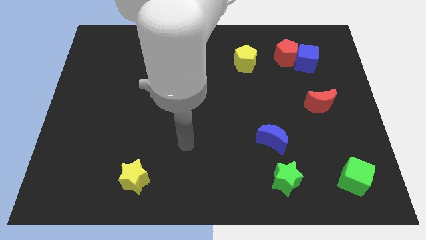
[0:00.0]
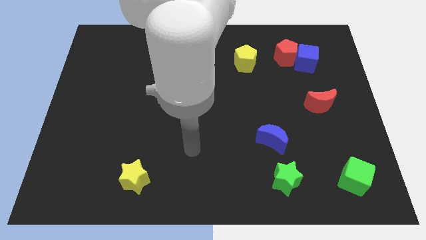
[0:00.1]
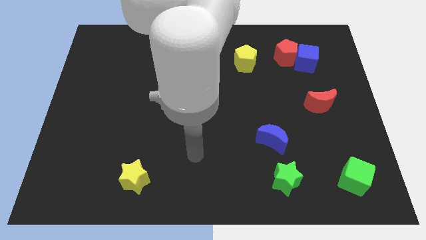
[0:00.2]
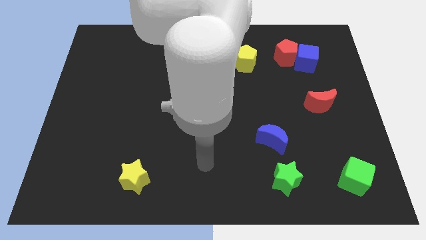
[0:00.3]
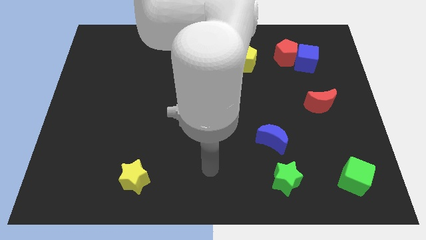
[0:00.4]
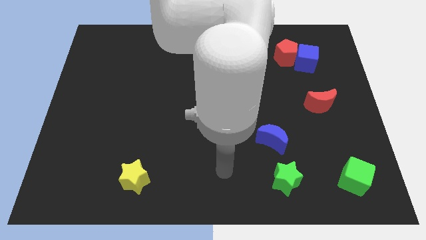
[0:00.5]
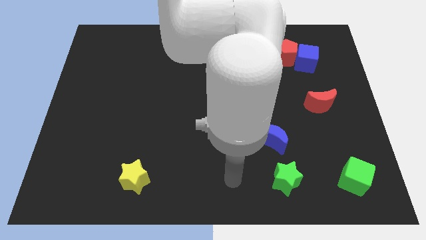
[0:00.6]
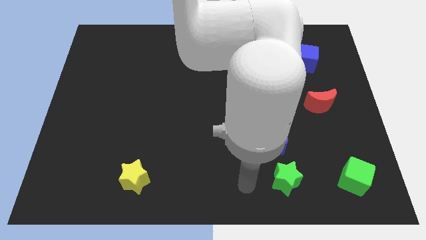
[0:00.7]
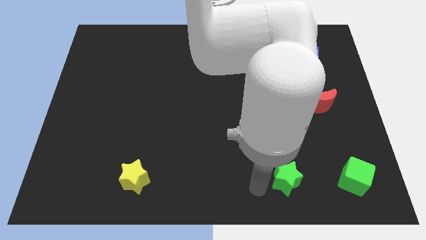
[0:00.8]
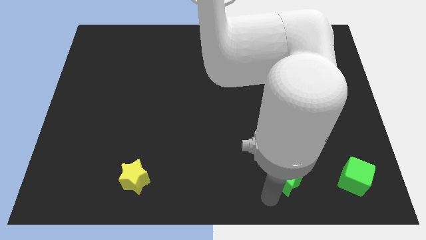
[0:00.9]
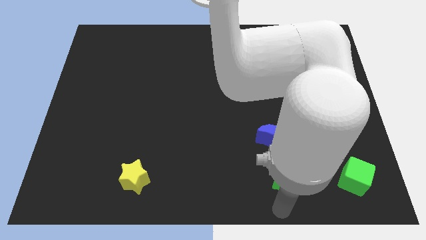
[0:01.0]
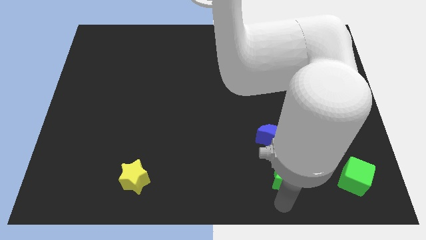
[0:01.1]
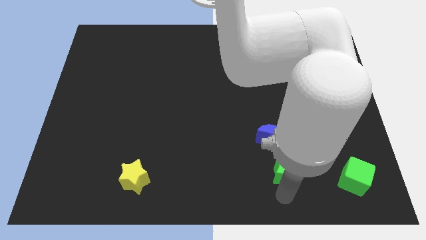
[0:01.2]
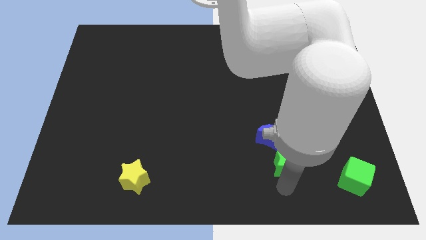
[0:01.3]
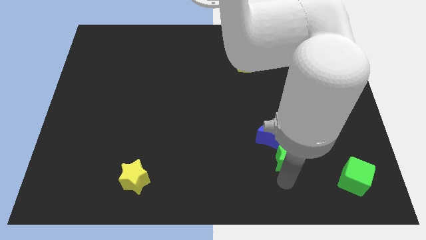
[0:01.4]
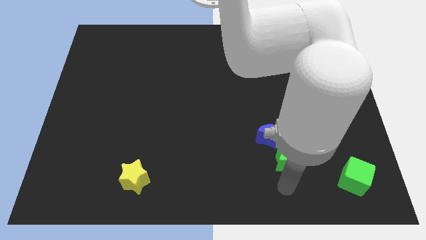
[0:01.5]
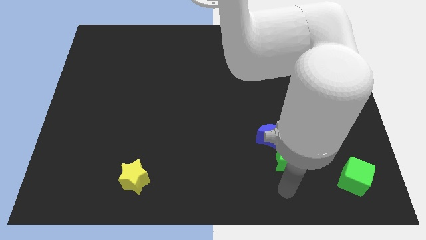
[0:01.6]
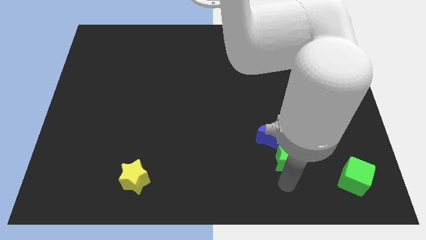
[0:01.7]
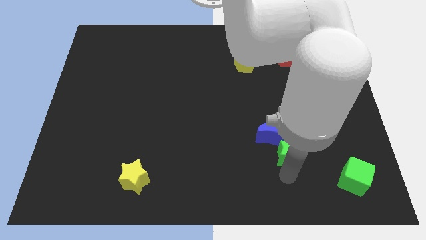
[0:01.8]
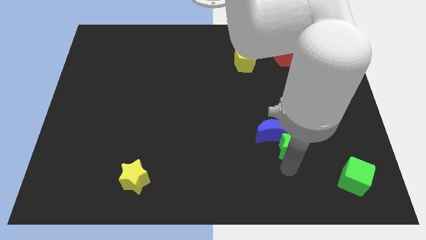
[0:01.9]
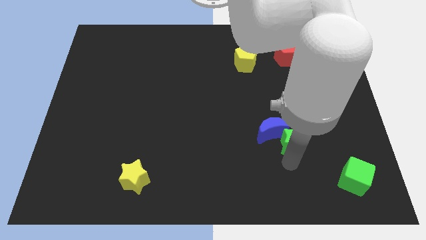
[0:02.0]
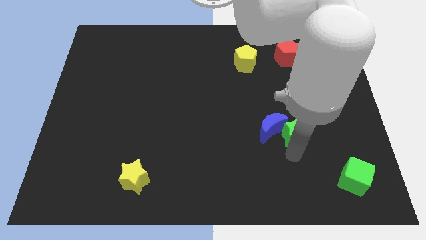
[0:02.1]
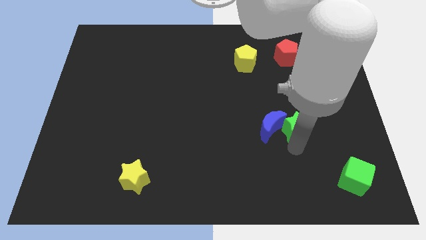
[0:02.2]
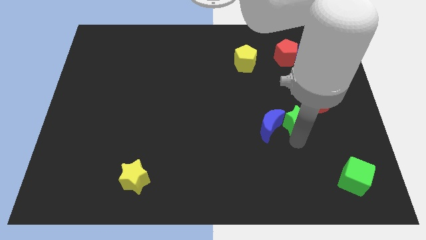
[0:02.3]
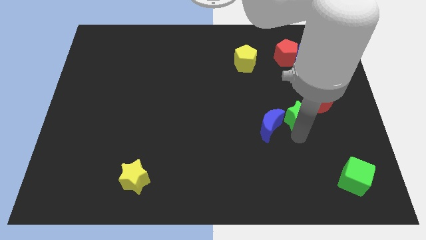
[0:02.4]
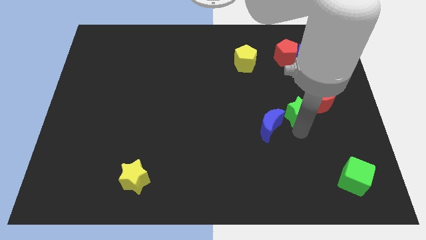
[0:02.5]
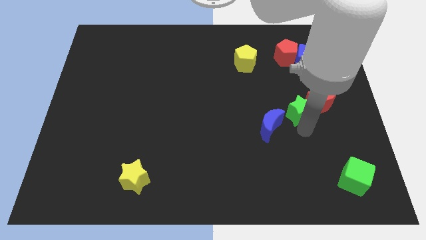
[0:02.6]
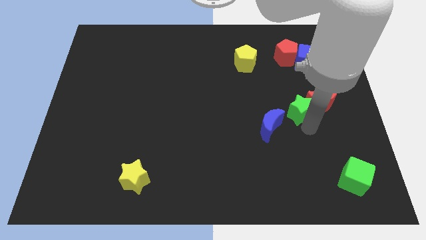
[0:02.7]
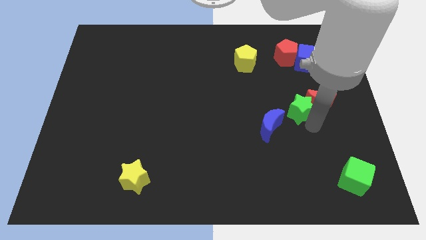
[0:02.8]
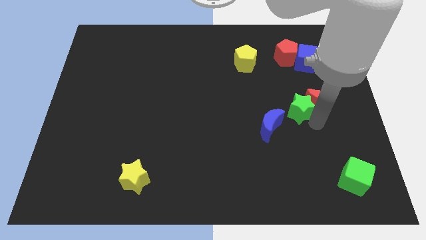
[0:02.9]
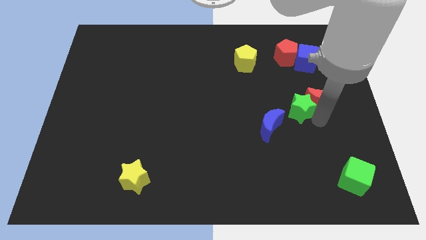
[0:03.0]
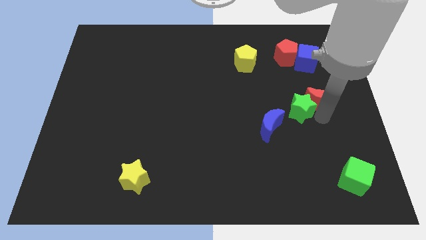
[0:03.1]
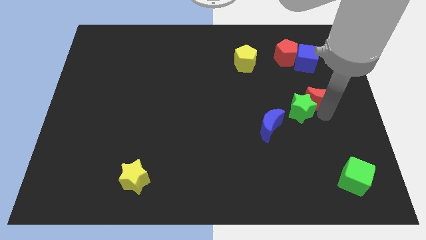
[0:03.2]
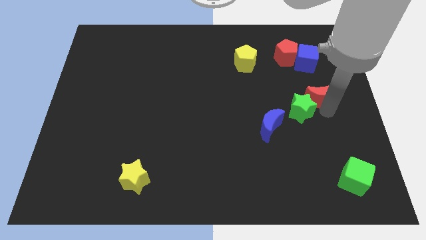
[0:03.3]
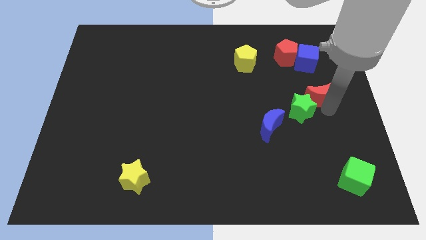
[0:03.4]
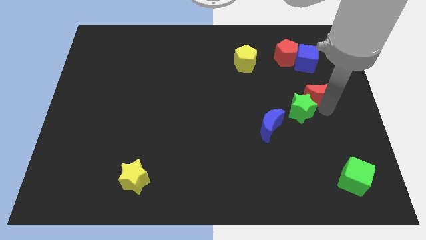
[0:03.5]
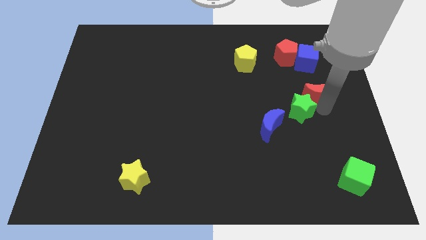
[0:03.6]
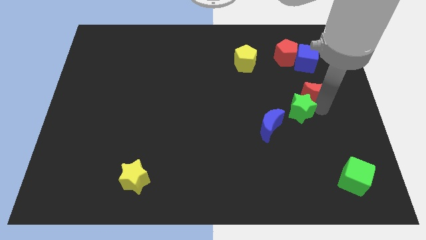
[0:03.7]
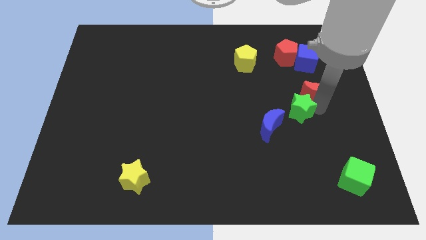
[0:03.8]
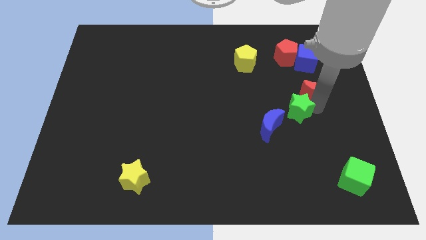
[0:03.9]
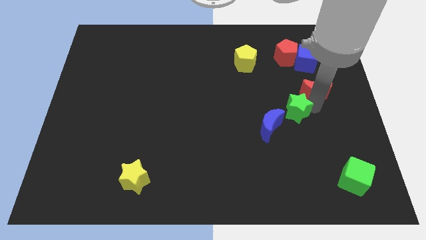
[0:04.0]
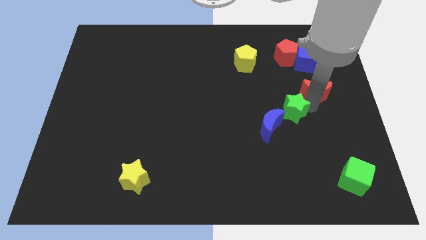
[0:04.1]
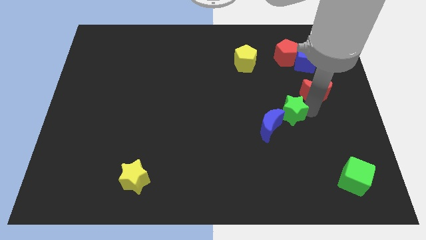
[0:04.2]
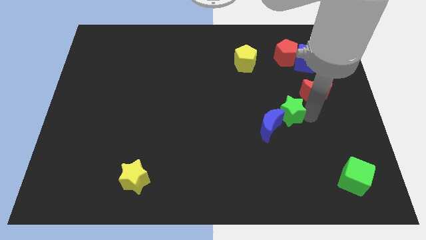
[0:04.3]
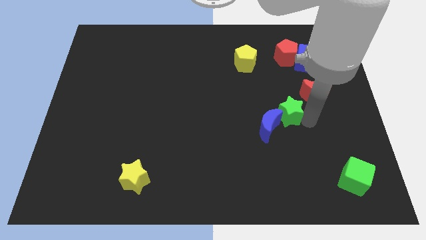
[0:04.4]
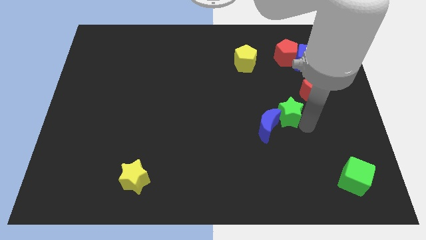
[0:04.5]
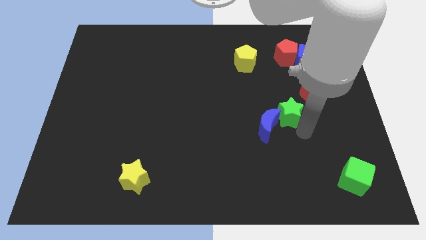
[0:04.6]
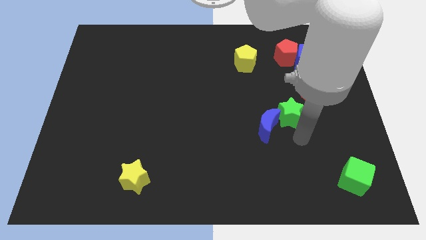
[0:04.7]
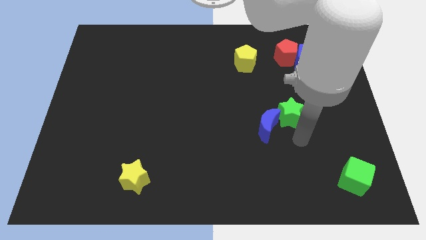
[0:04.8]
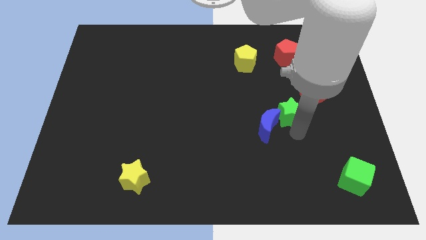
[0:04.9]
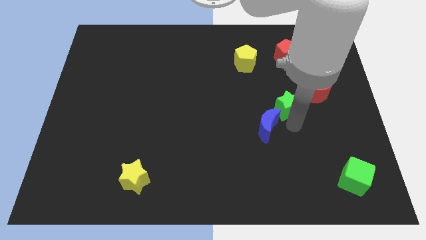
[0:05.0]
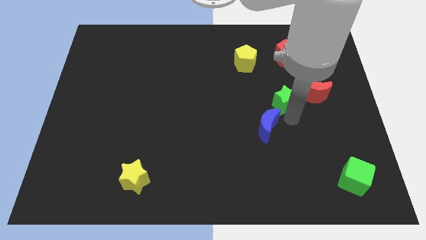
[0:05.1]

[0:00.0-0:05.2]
slide the green star upwards

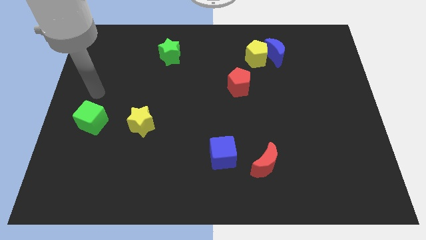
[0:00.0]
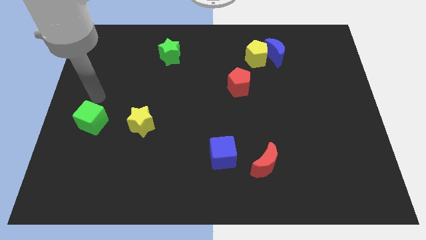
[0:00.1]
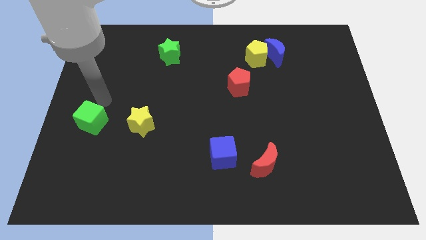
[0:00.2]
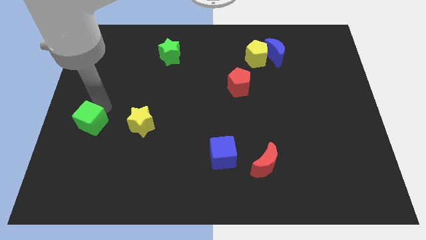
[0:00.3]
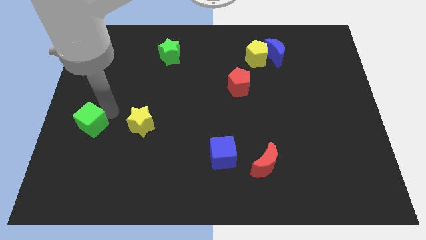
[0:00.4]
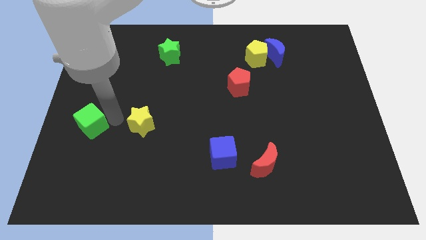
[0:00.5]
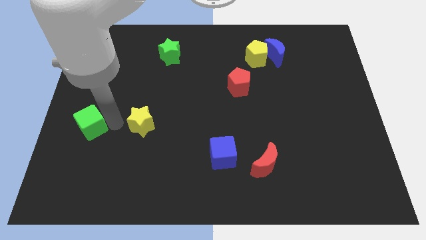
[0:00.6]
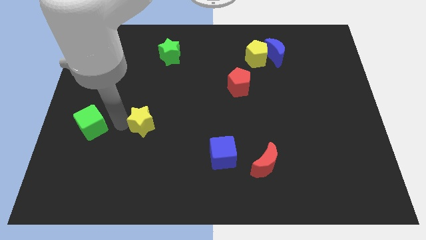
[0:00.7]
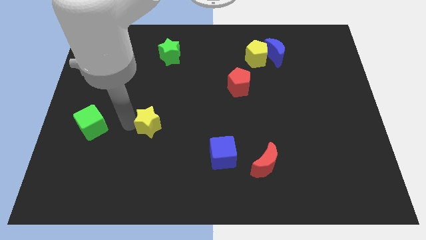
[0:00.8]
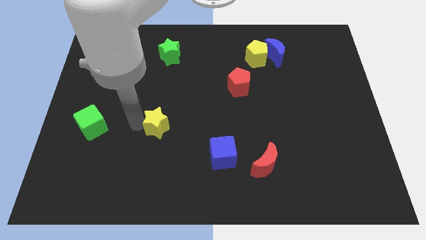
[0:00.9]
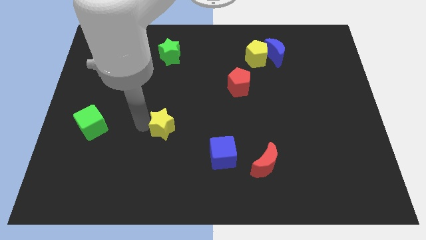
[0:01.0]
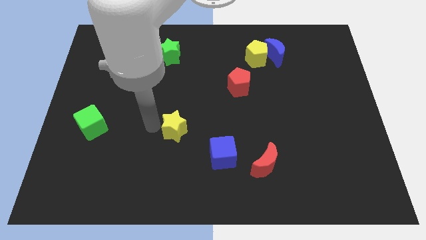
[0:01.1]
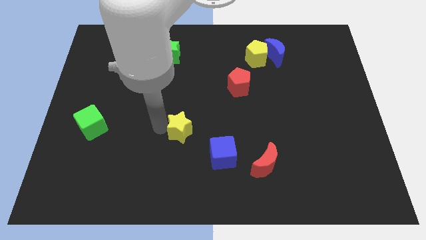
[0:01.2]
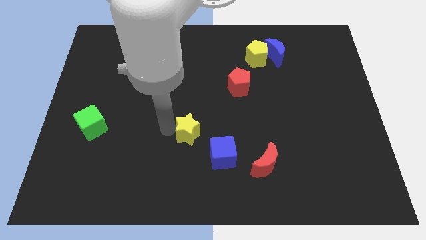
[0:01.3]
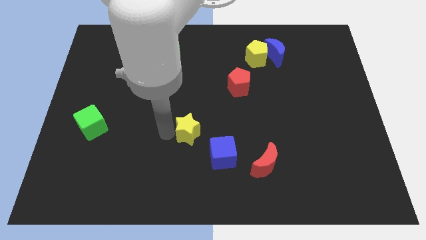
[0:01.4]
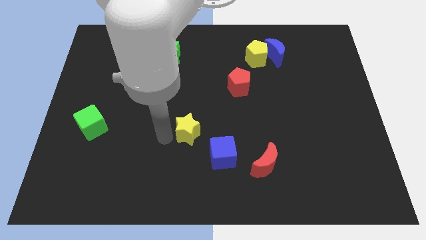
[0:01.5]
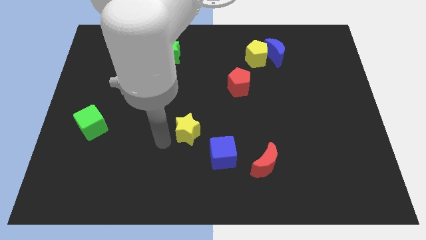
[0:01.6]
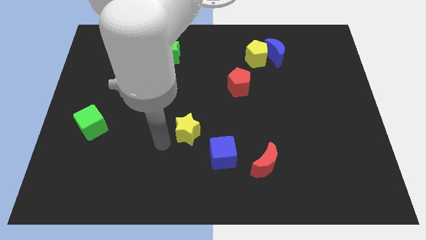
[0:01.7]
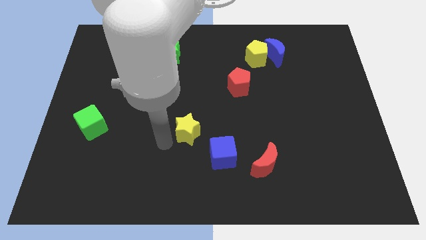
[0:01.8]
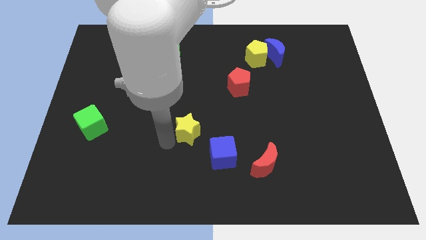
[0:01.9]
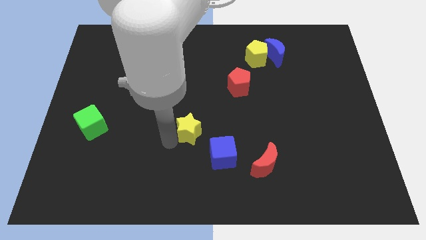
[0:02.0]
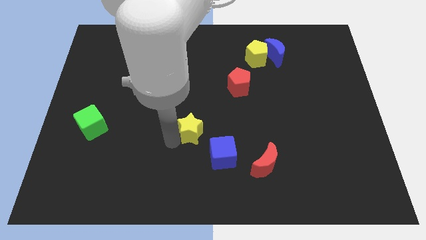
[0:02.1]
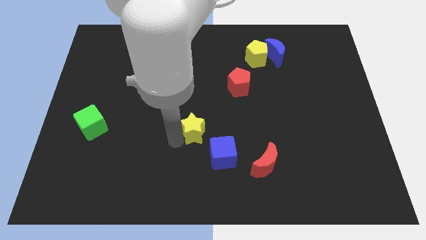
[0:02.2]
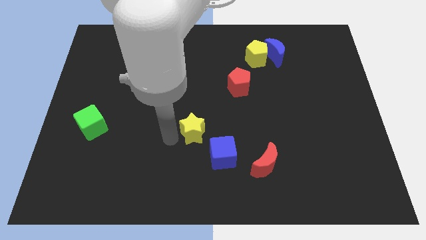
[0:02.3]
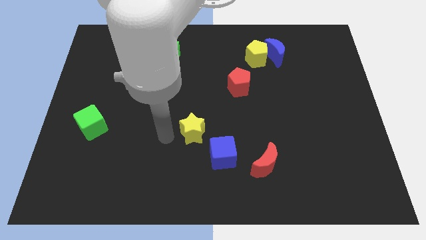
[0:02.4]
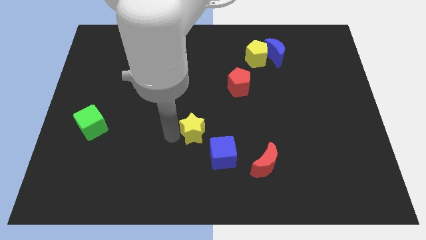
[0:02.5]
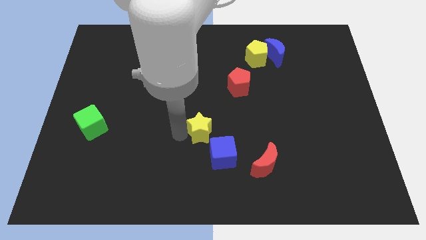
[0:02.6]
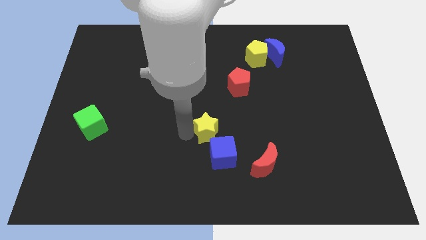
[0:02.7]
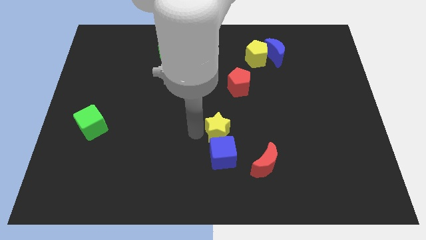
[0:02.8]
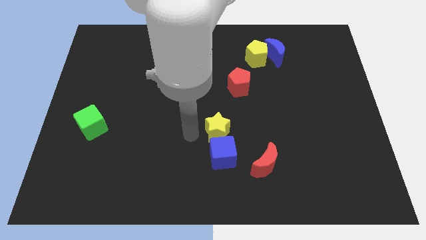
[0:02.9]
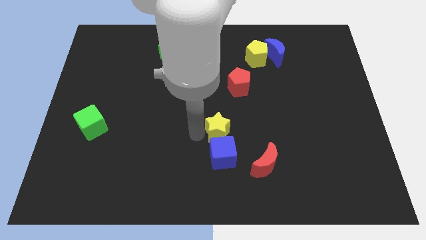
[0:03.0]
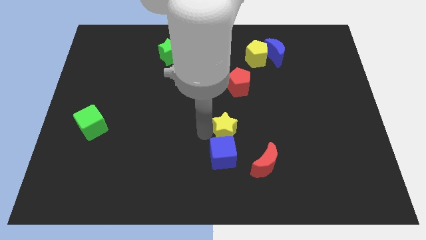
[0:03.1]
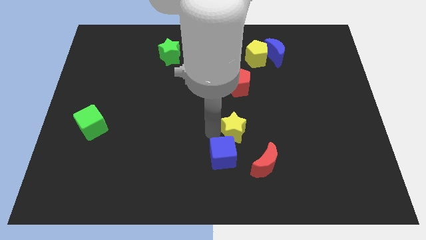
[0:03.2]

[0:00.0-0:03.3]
slide the yellow star right
